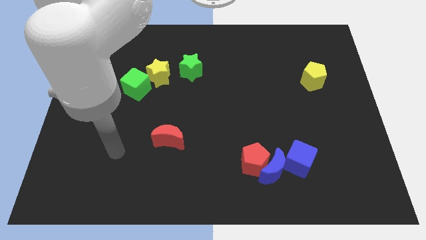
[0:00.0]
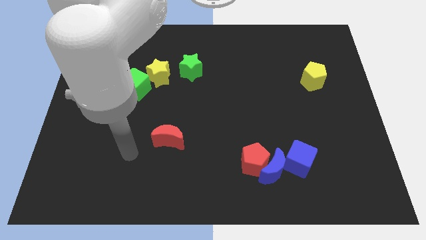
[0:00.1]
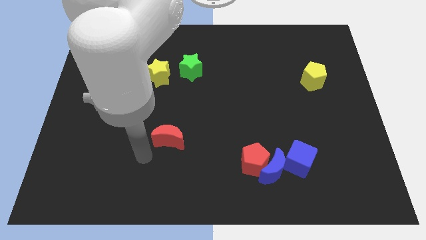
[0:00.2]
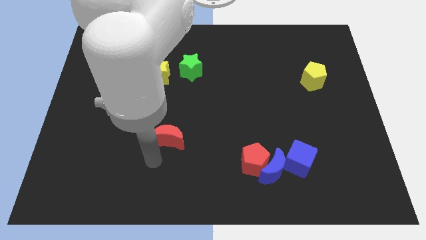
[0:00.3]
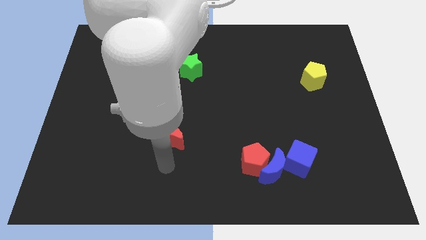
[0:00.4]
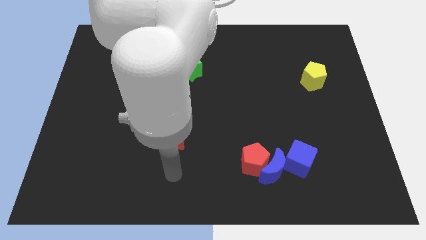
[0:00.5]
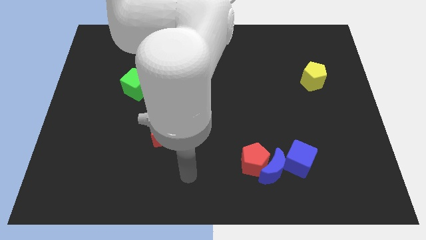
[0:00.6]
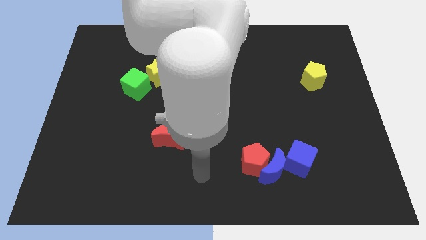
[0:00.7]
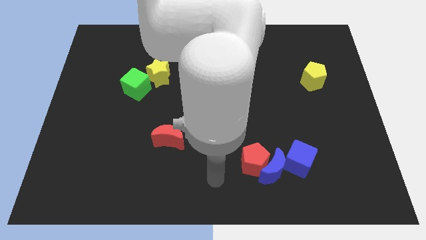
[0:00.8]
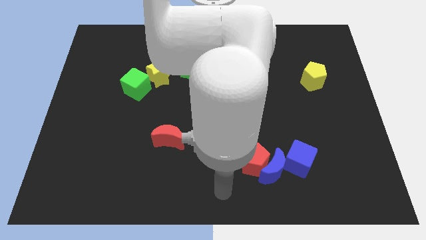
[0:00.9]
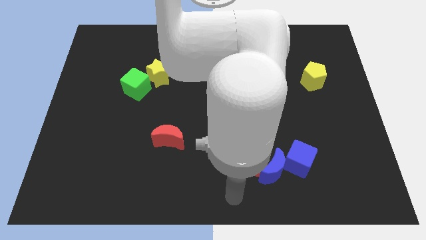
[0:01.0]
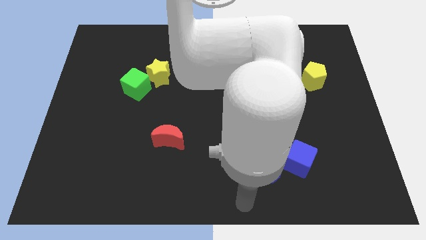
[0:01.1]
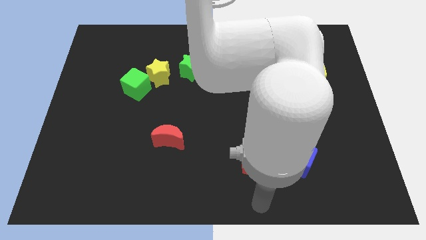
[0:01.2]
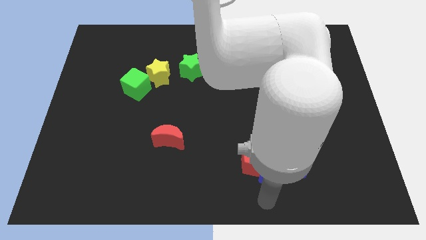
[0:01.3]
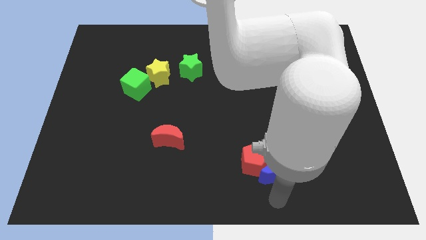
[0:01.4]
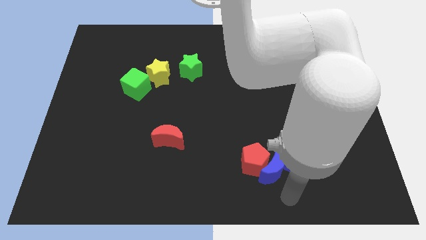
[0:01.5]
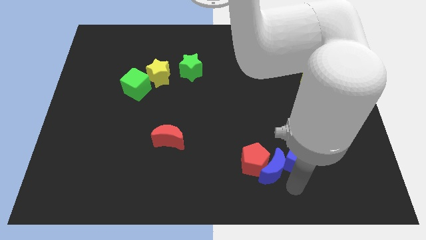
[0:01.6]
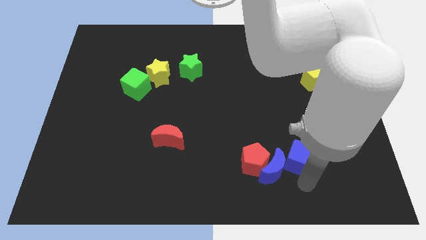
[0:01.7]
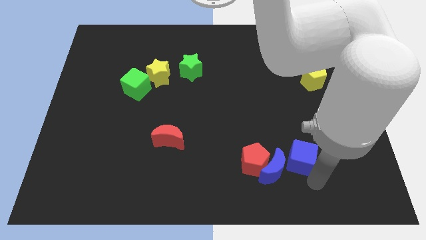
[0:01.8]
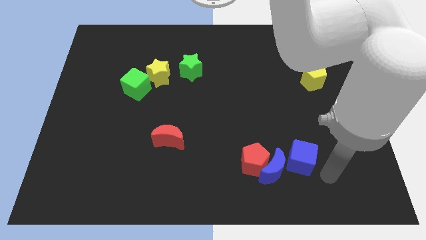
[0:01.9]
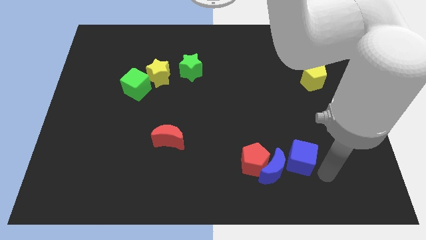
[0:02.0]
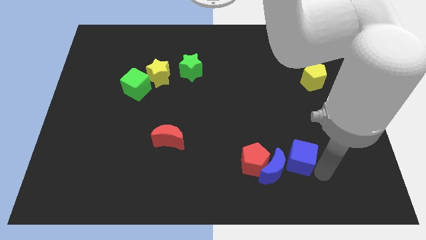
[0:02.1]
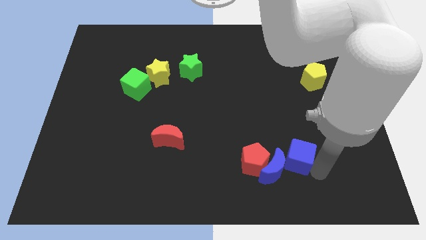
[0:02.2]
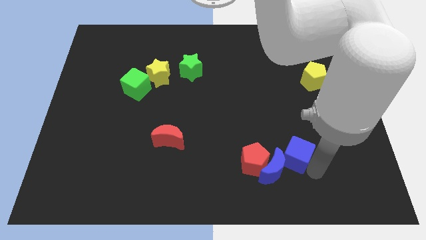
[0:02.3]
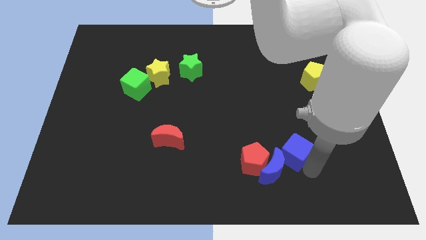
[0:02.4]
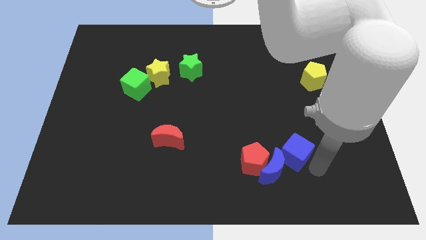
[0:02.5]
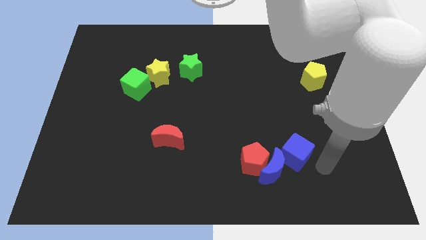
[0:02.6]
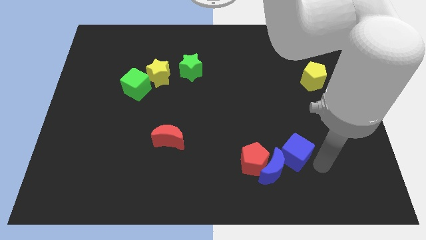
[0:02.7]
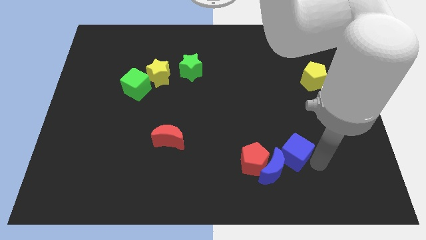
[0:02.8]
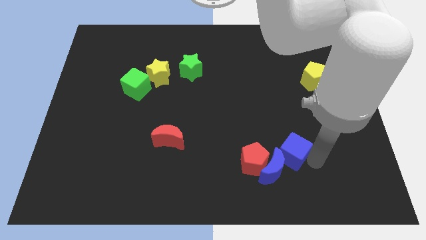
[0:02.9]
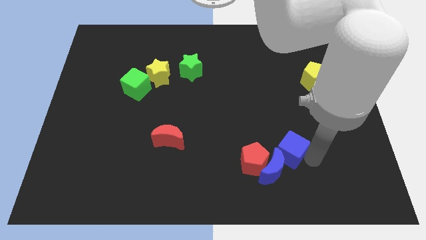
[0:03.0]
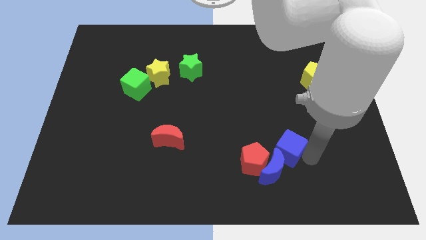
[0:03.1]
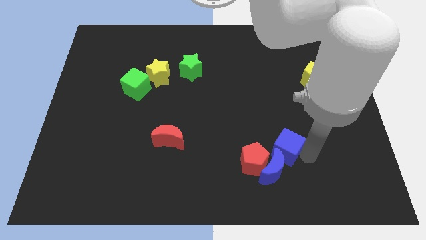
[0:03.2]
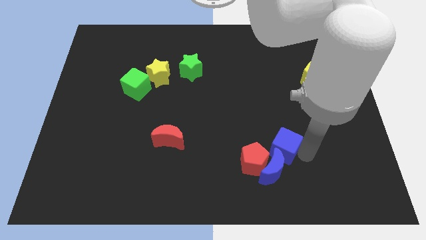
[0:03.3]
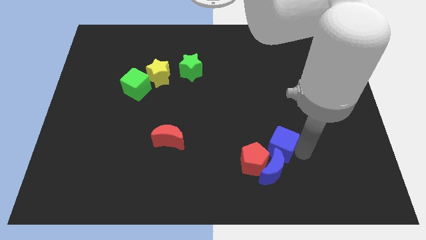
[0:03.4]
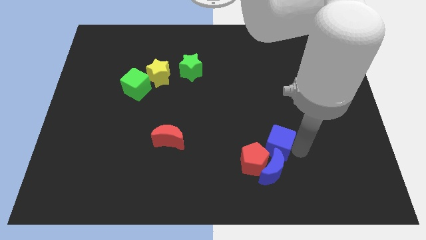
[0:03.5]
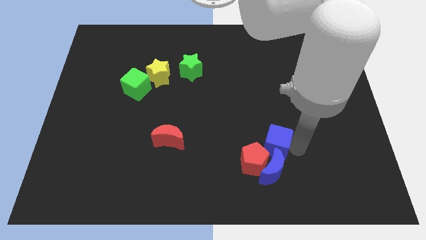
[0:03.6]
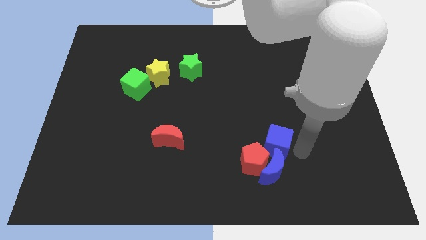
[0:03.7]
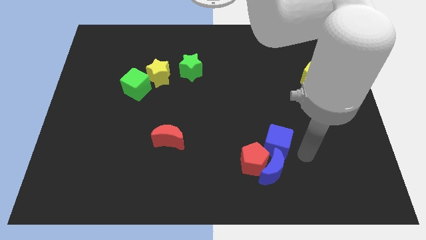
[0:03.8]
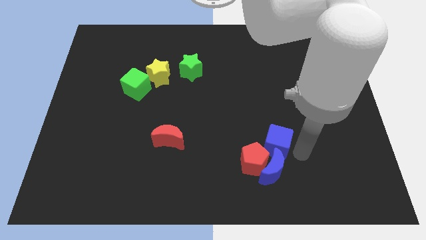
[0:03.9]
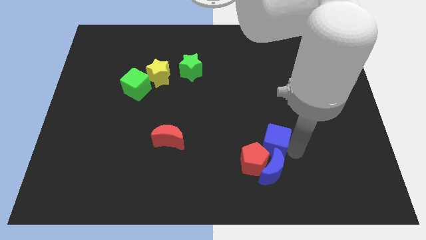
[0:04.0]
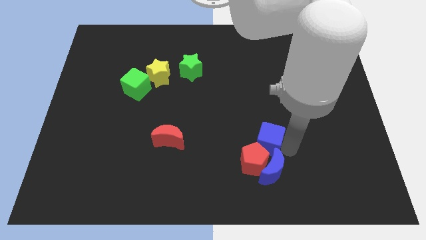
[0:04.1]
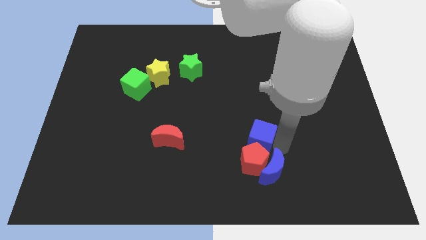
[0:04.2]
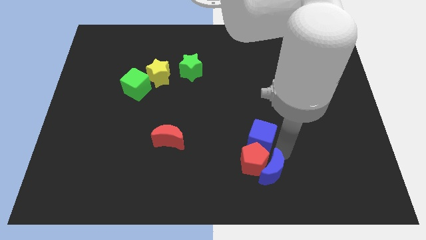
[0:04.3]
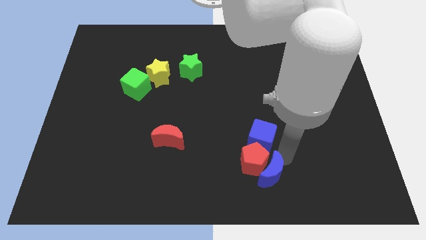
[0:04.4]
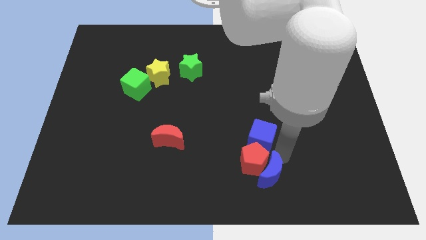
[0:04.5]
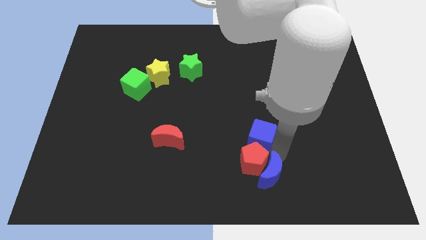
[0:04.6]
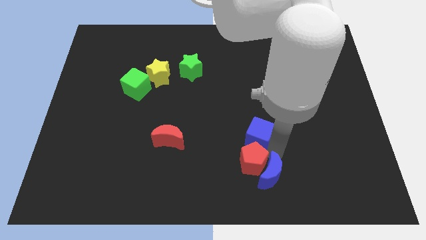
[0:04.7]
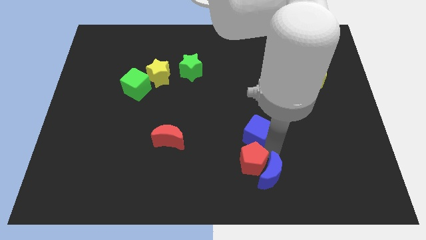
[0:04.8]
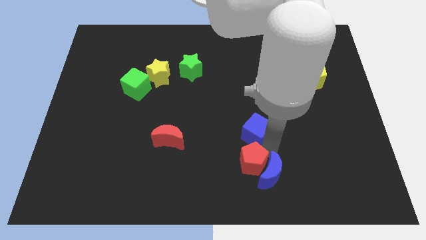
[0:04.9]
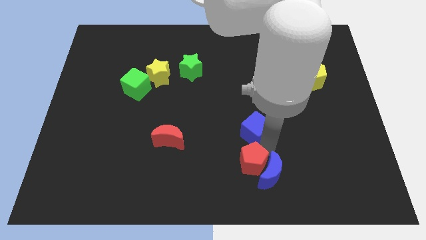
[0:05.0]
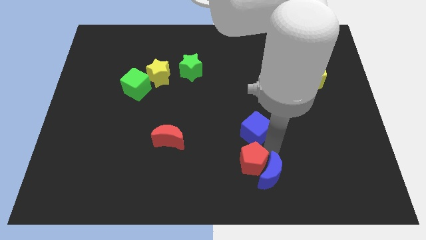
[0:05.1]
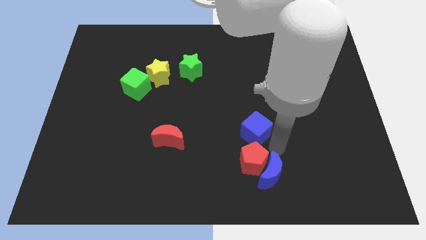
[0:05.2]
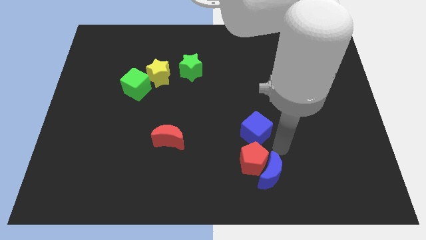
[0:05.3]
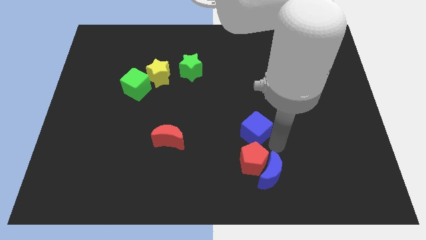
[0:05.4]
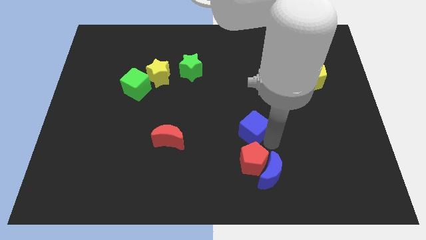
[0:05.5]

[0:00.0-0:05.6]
push the blue cube to the middle

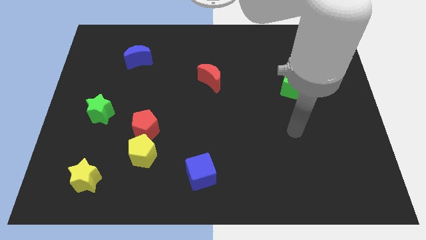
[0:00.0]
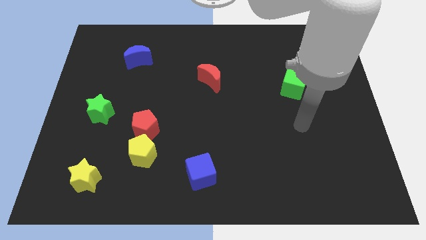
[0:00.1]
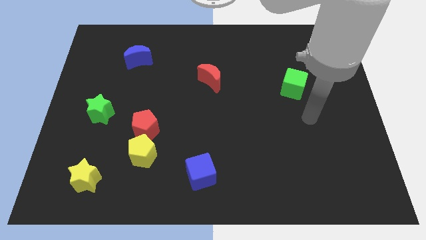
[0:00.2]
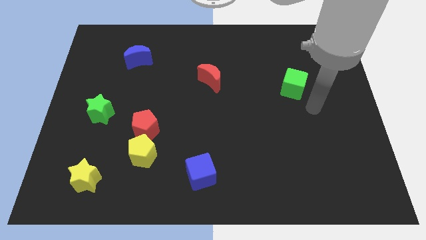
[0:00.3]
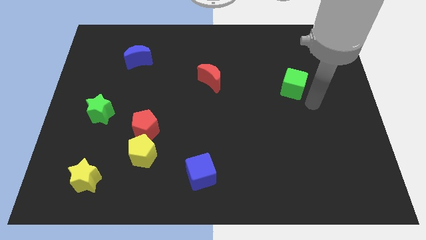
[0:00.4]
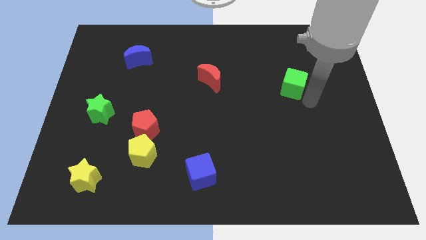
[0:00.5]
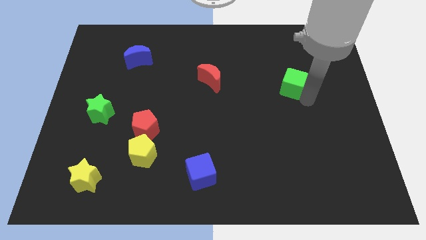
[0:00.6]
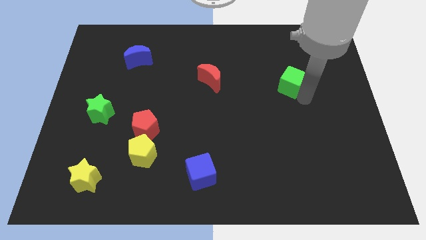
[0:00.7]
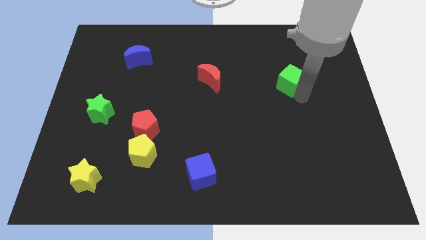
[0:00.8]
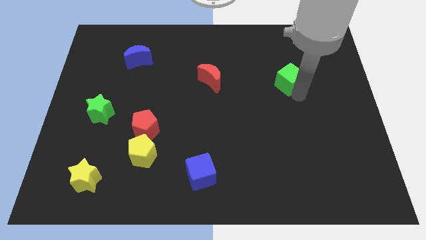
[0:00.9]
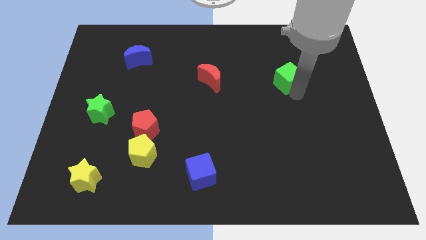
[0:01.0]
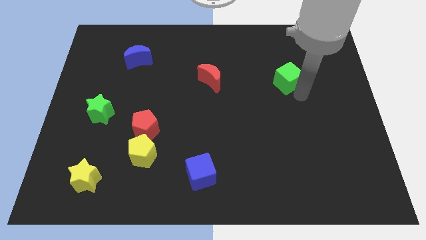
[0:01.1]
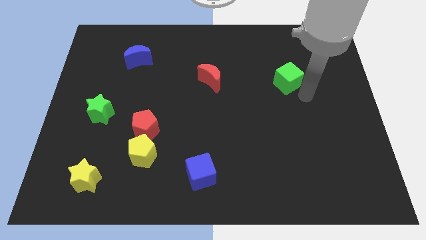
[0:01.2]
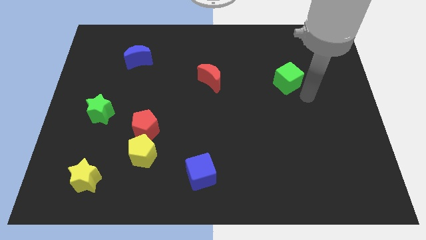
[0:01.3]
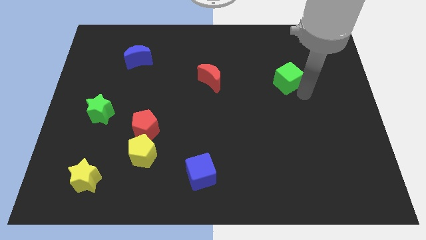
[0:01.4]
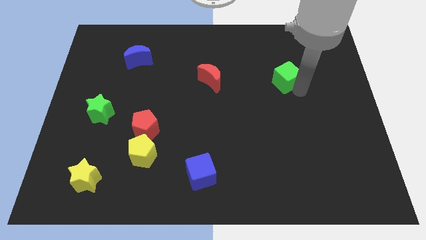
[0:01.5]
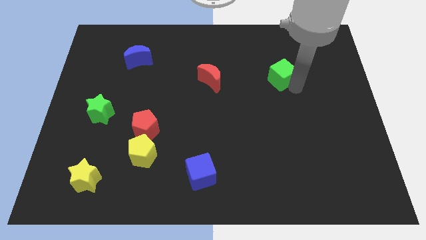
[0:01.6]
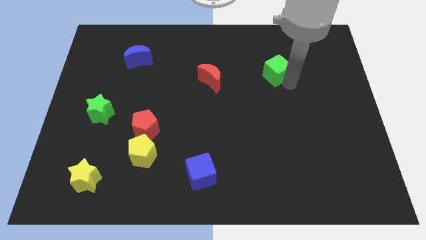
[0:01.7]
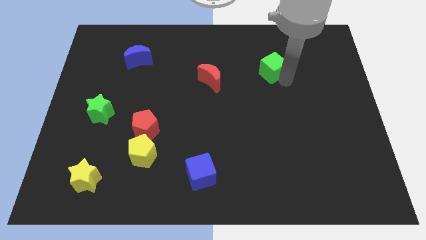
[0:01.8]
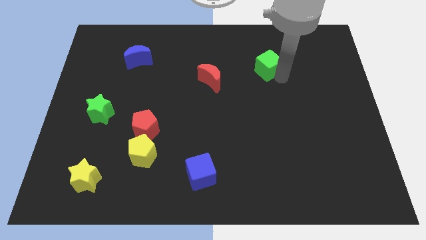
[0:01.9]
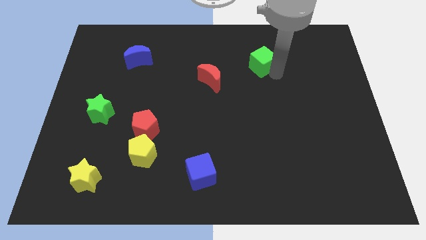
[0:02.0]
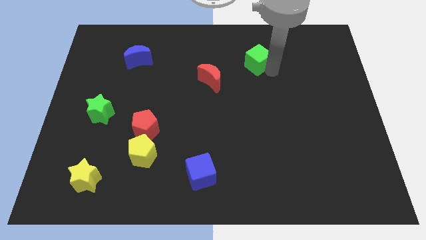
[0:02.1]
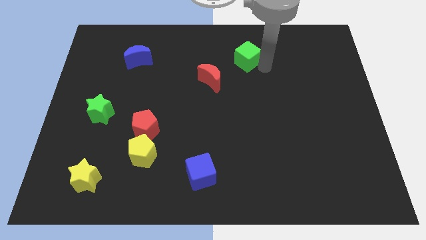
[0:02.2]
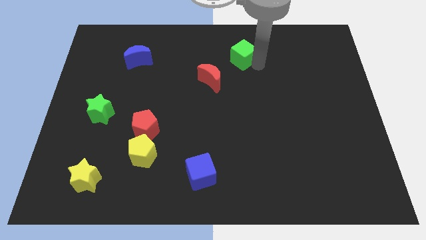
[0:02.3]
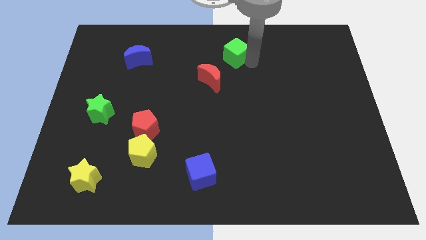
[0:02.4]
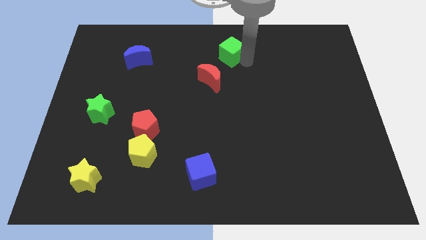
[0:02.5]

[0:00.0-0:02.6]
push the green cube to the towards your base
